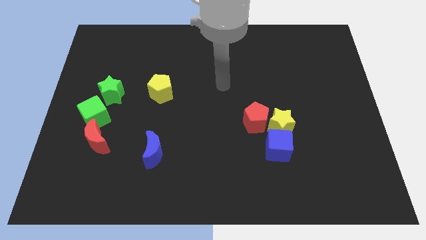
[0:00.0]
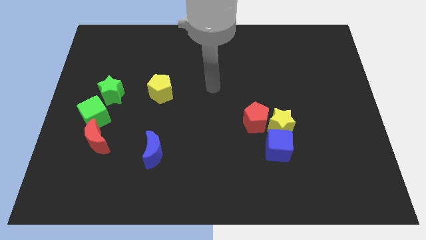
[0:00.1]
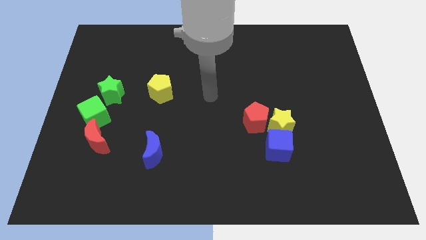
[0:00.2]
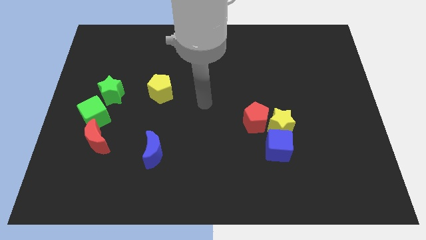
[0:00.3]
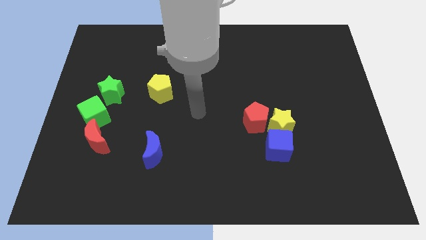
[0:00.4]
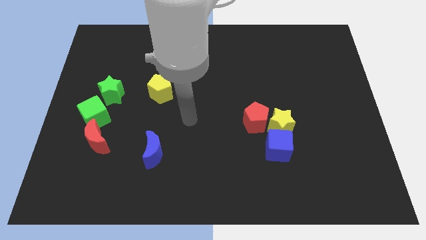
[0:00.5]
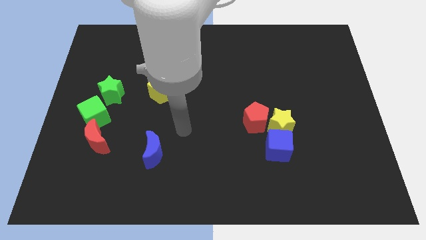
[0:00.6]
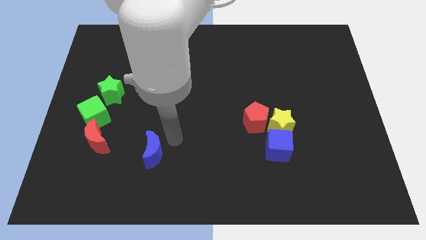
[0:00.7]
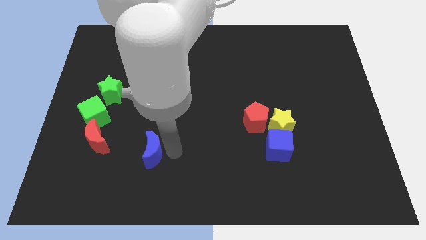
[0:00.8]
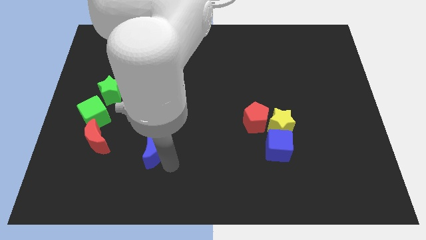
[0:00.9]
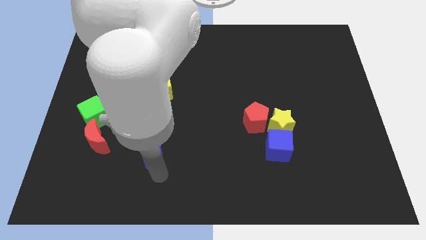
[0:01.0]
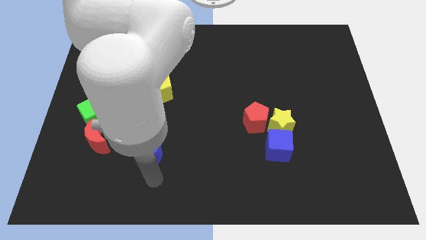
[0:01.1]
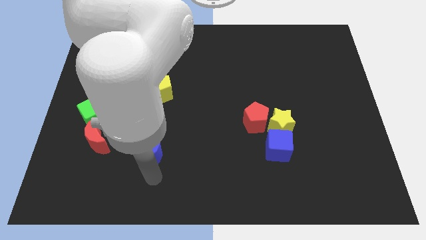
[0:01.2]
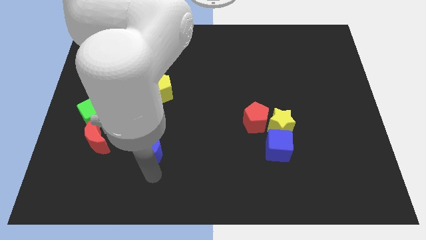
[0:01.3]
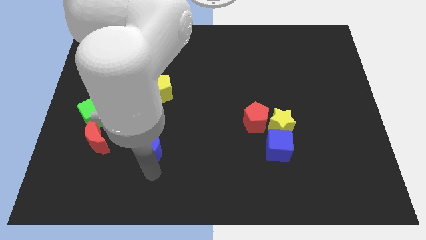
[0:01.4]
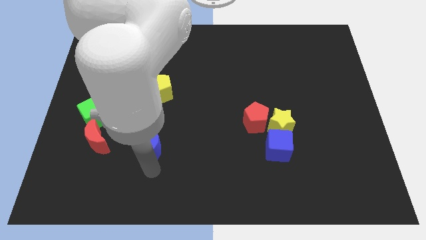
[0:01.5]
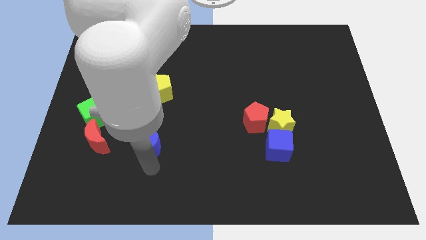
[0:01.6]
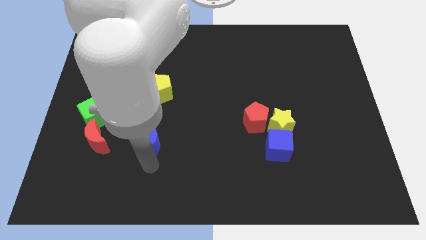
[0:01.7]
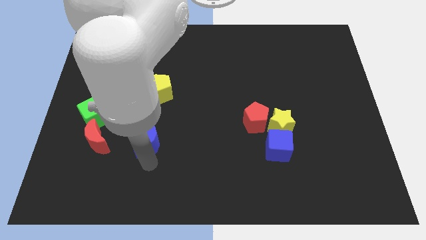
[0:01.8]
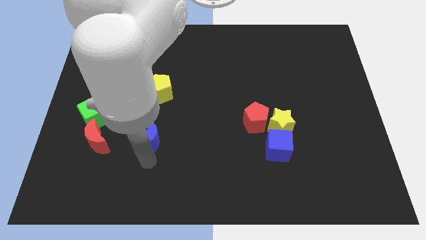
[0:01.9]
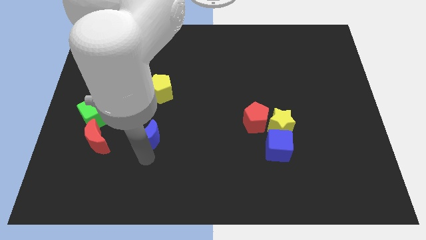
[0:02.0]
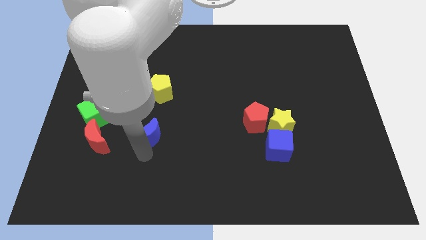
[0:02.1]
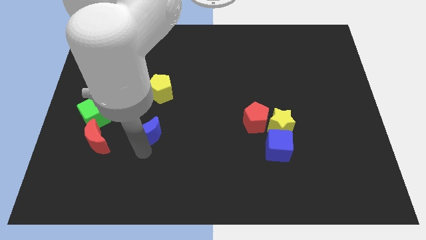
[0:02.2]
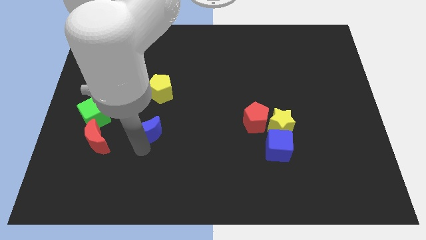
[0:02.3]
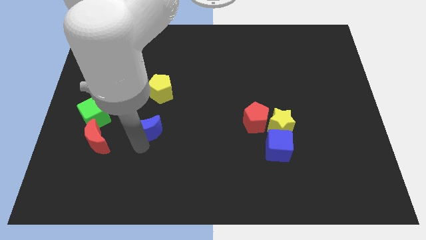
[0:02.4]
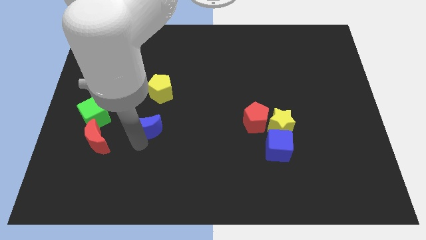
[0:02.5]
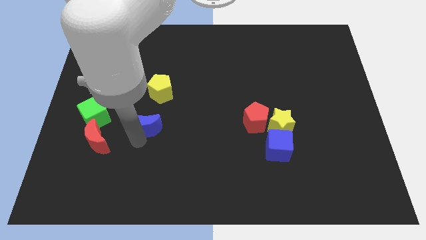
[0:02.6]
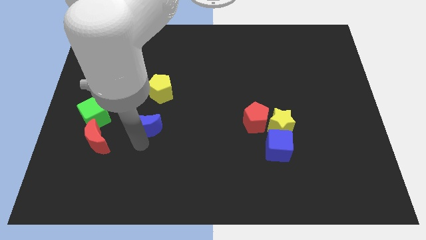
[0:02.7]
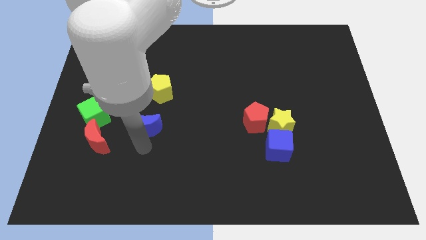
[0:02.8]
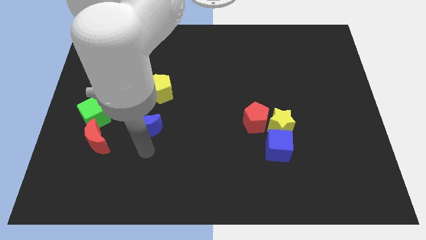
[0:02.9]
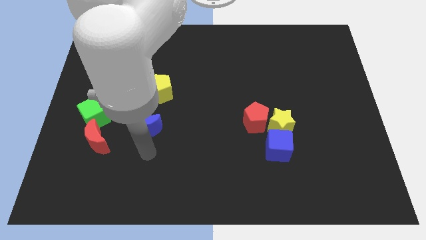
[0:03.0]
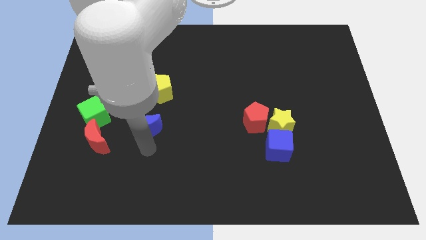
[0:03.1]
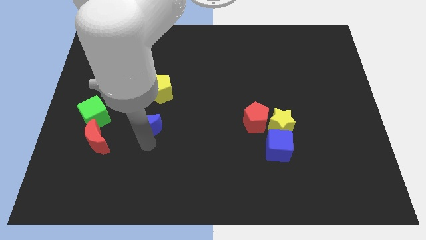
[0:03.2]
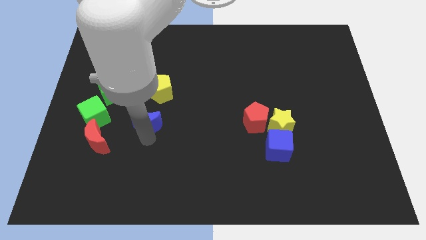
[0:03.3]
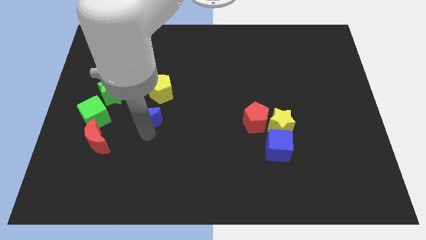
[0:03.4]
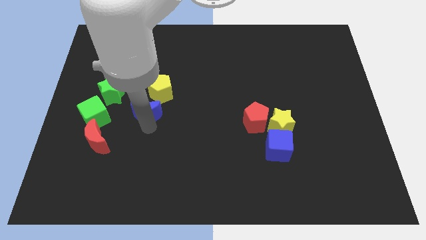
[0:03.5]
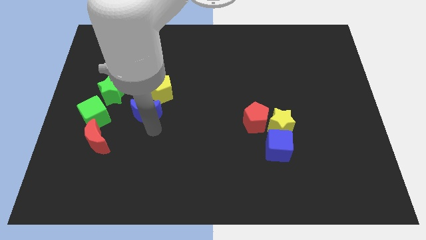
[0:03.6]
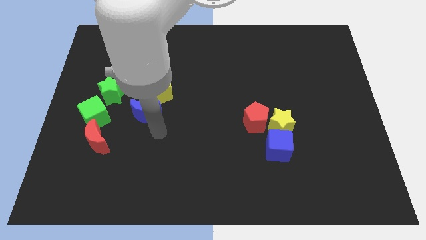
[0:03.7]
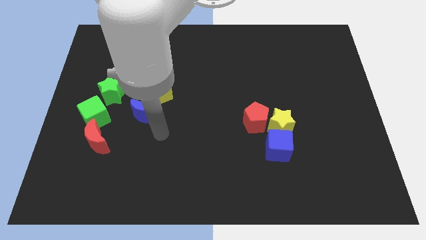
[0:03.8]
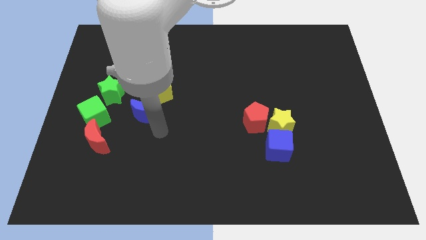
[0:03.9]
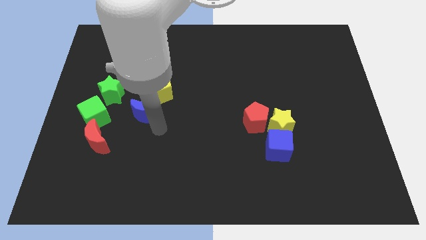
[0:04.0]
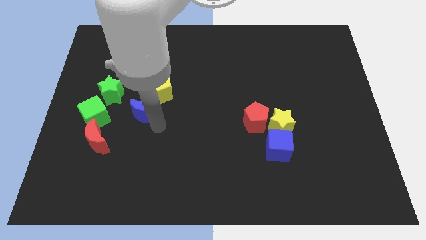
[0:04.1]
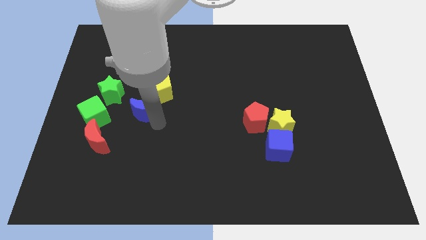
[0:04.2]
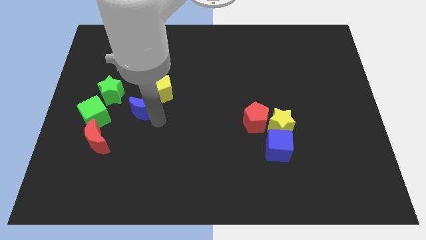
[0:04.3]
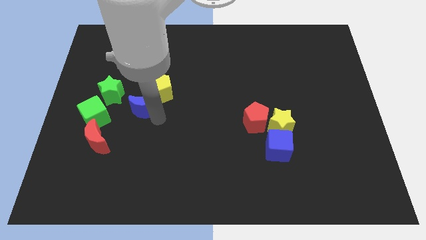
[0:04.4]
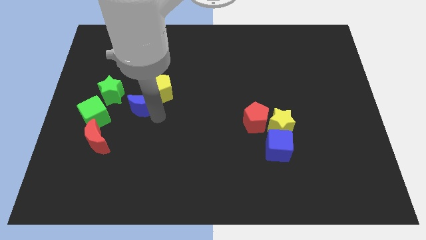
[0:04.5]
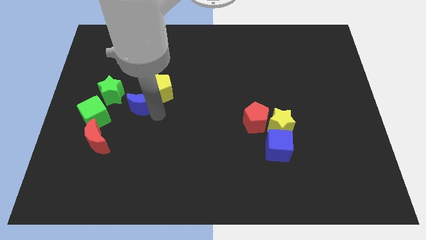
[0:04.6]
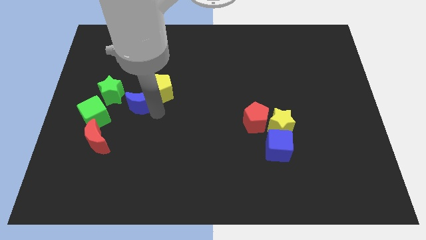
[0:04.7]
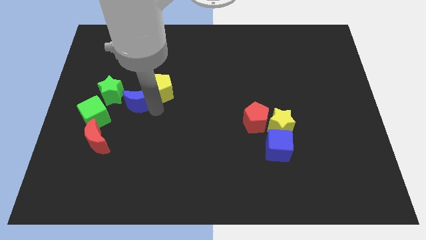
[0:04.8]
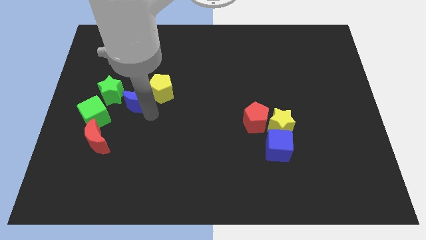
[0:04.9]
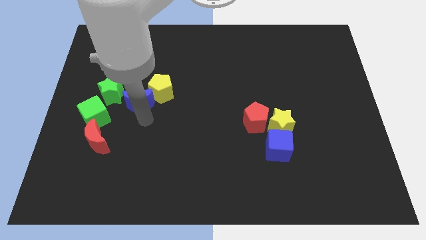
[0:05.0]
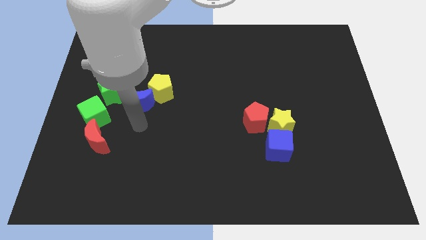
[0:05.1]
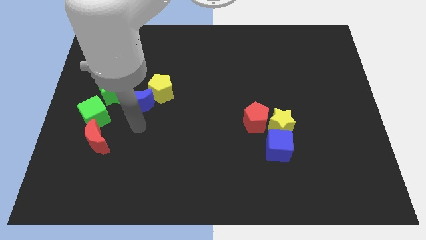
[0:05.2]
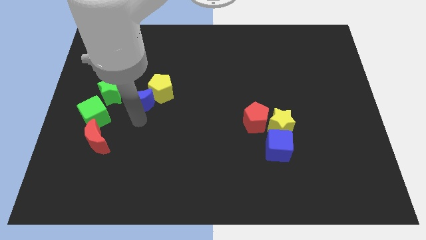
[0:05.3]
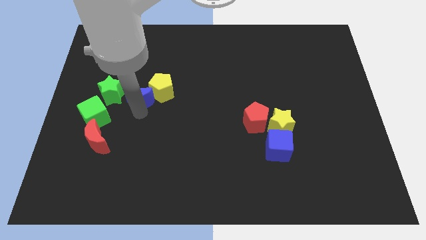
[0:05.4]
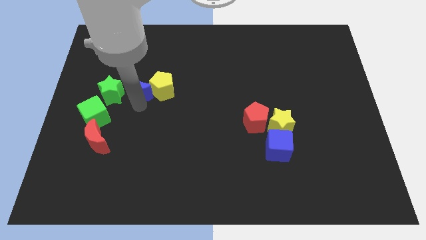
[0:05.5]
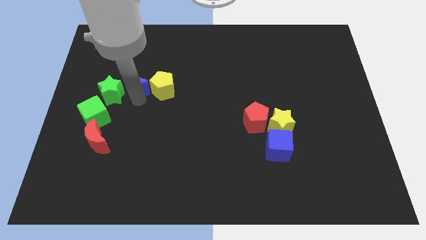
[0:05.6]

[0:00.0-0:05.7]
push the blue moon to the top left of the yellow pentagon

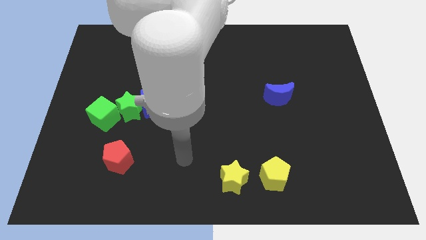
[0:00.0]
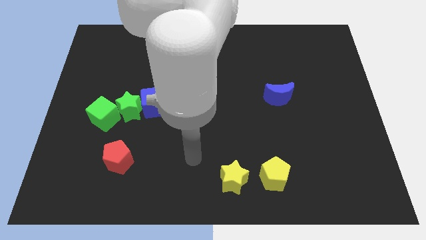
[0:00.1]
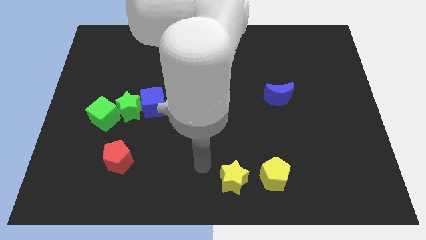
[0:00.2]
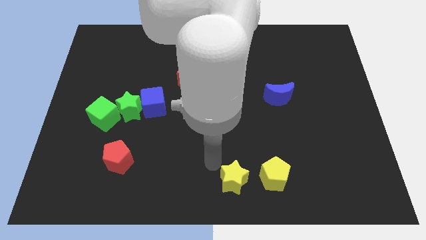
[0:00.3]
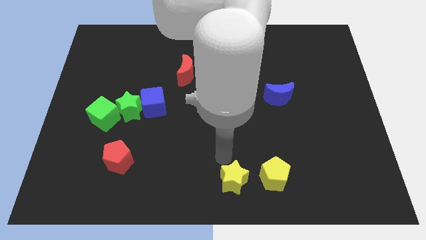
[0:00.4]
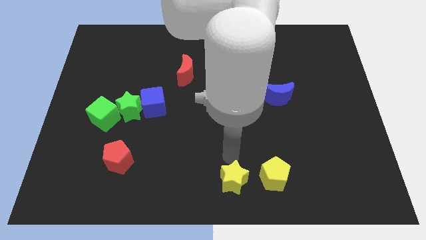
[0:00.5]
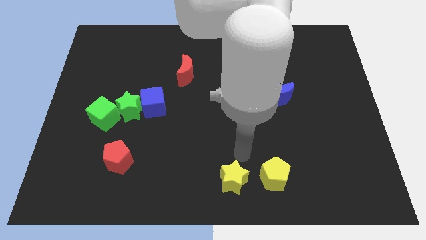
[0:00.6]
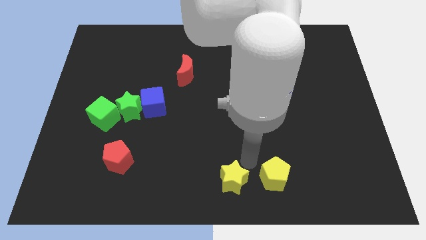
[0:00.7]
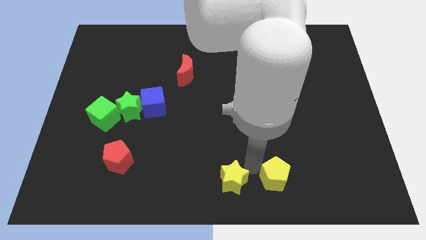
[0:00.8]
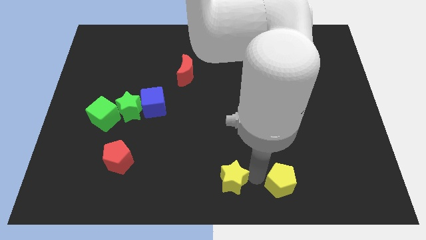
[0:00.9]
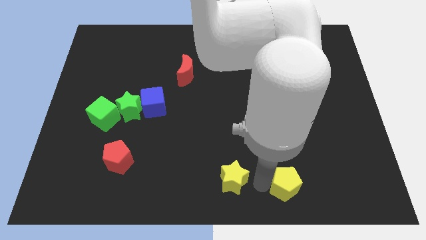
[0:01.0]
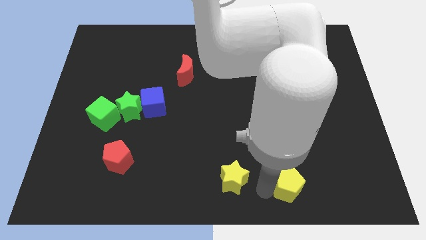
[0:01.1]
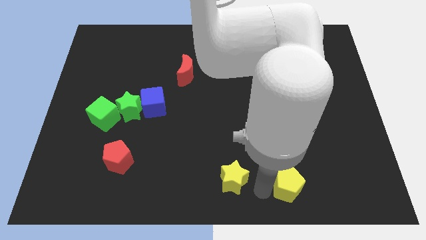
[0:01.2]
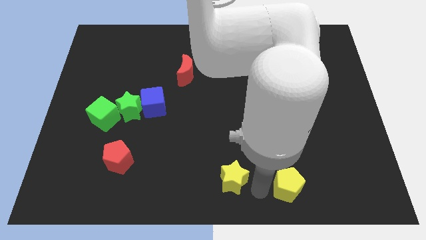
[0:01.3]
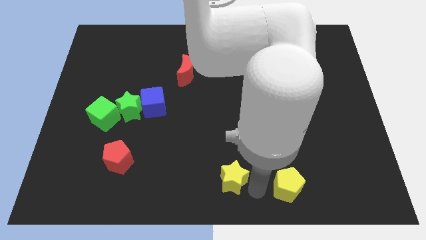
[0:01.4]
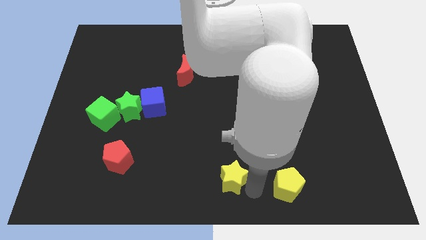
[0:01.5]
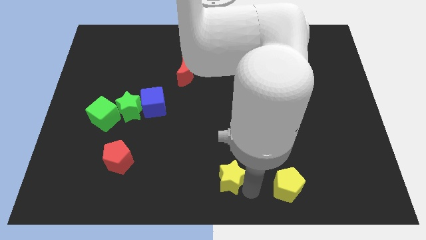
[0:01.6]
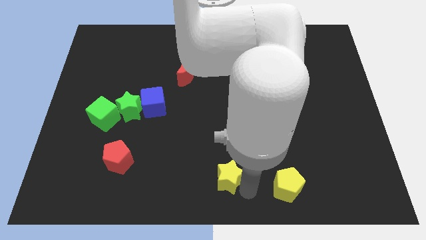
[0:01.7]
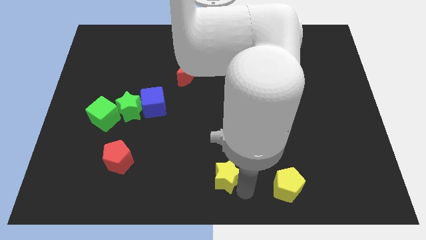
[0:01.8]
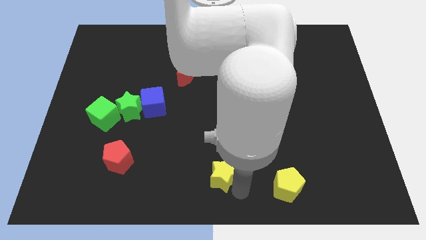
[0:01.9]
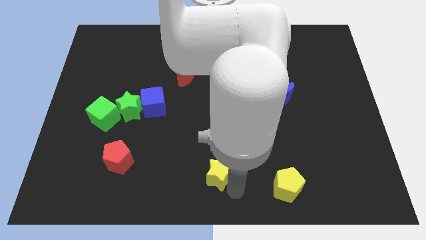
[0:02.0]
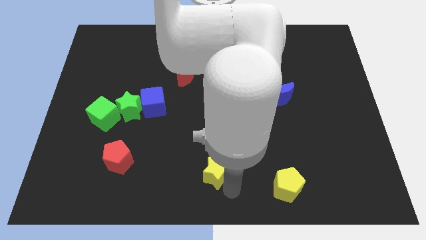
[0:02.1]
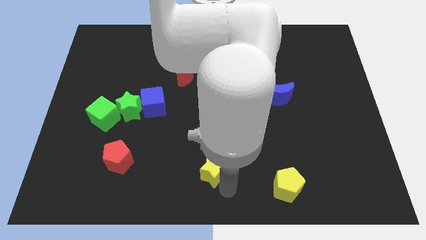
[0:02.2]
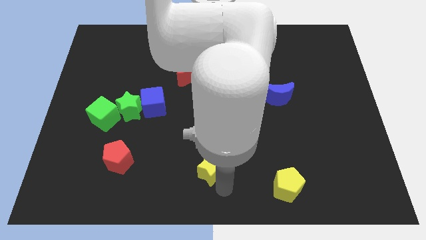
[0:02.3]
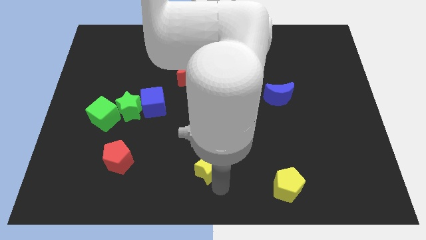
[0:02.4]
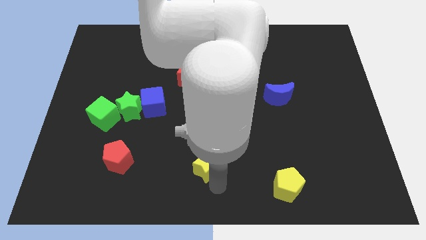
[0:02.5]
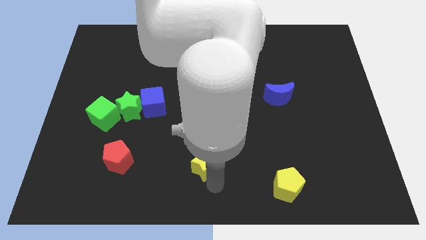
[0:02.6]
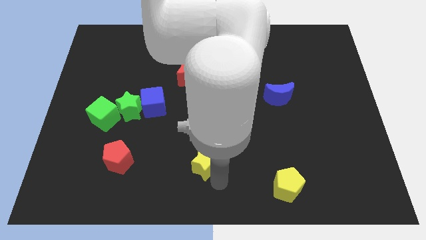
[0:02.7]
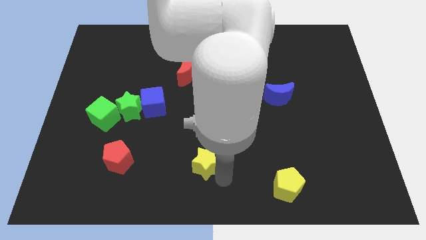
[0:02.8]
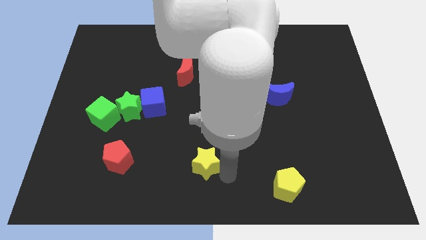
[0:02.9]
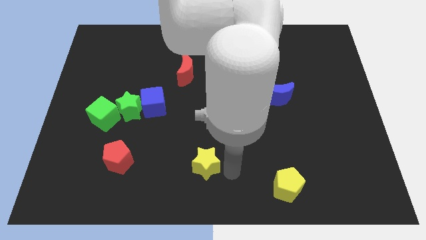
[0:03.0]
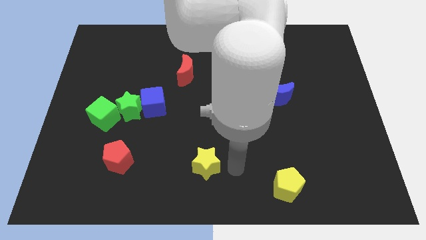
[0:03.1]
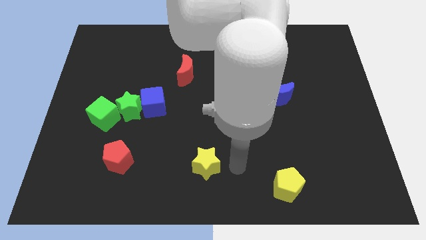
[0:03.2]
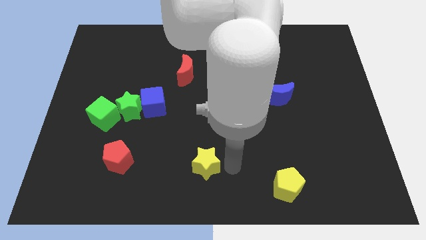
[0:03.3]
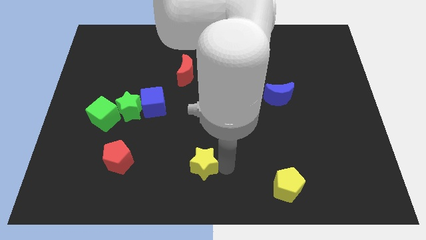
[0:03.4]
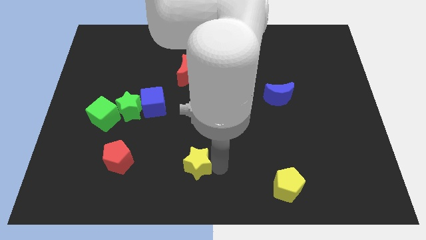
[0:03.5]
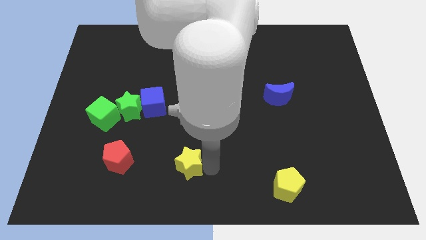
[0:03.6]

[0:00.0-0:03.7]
push the yellow star right of the red pentagon
